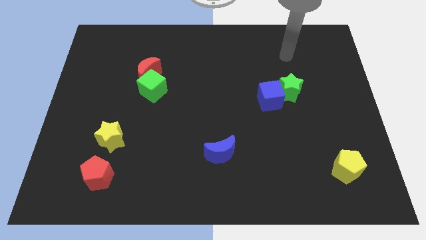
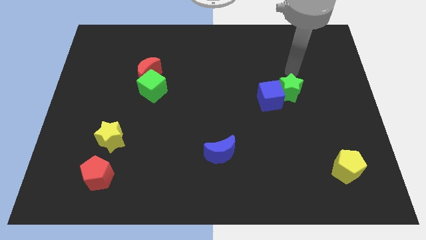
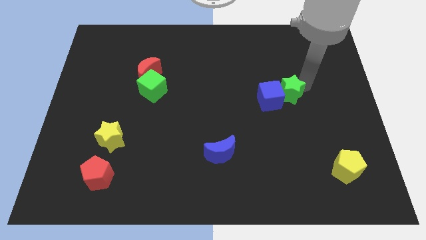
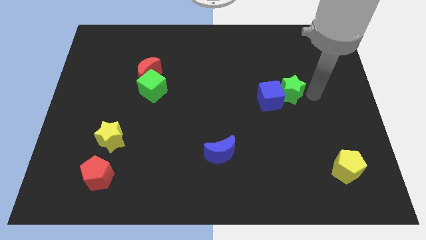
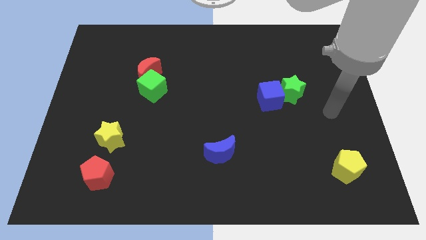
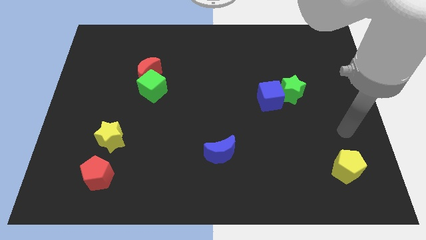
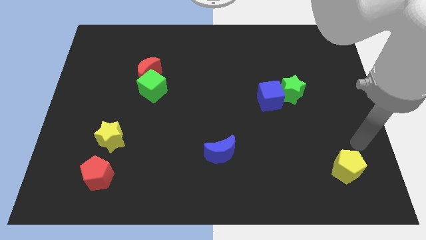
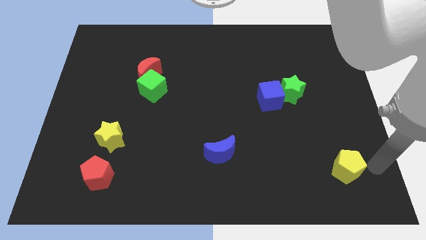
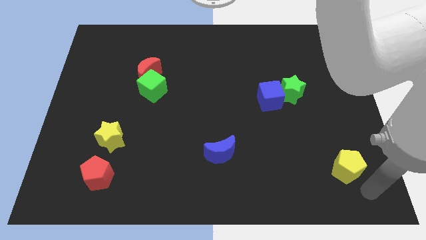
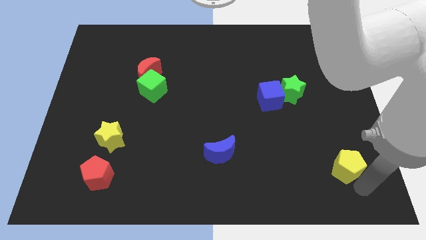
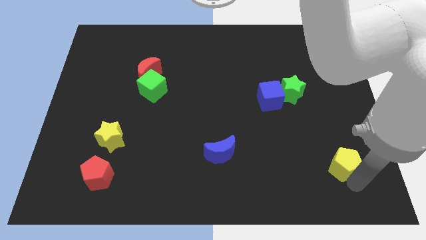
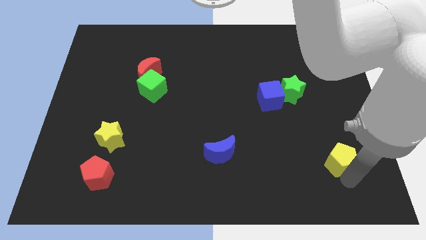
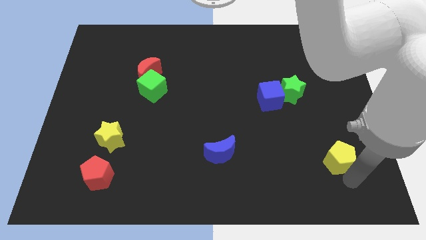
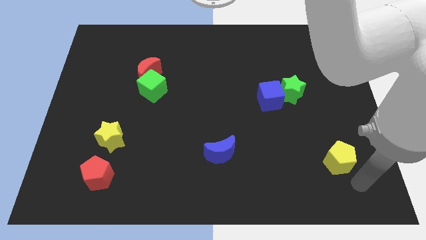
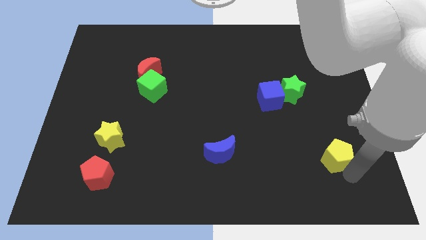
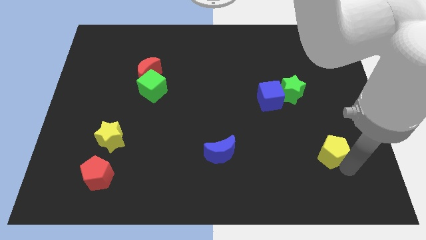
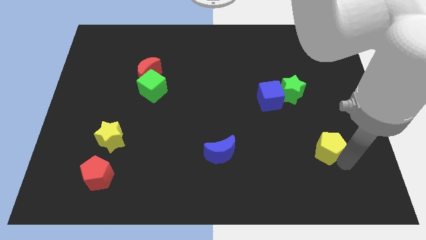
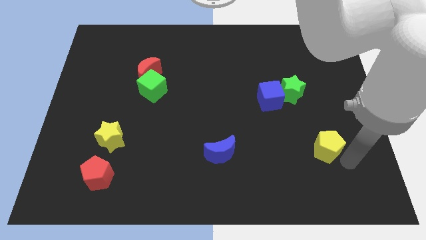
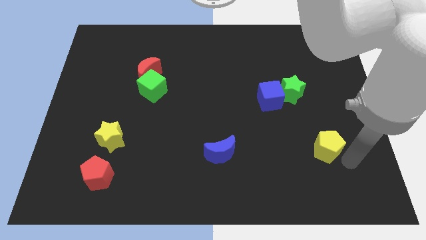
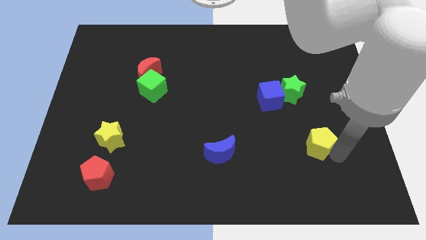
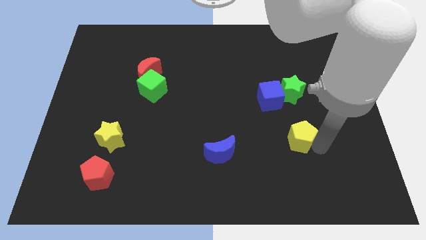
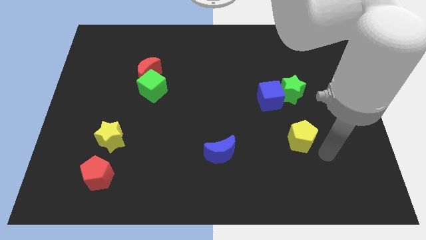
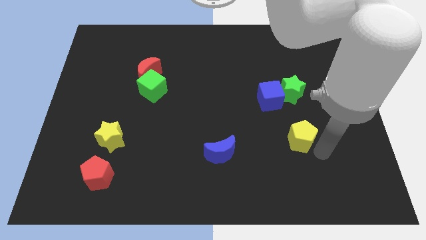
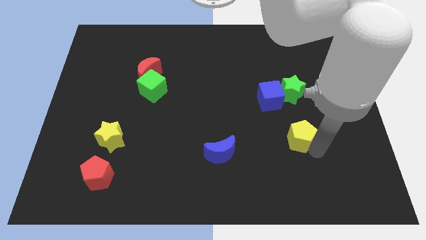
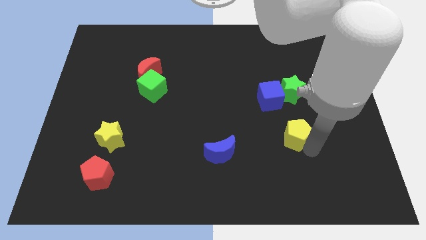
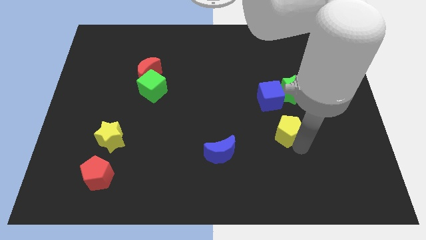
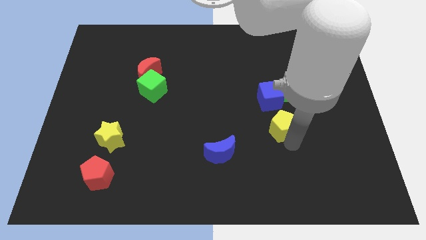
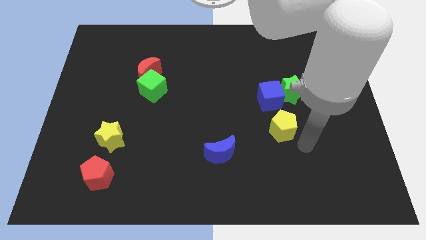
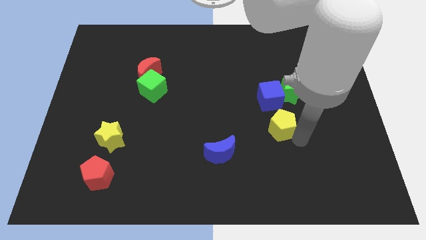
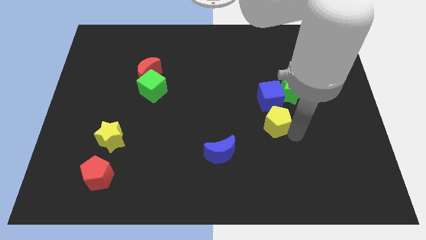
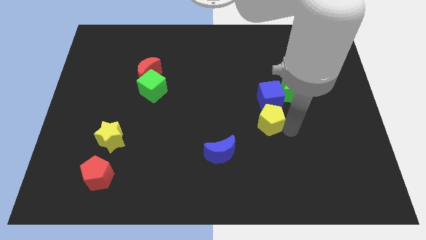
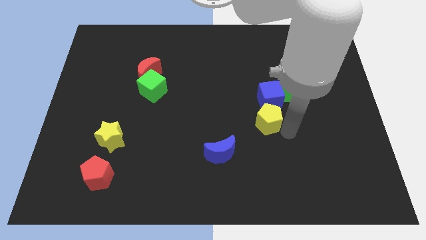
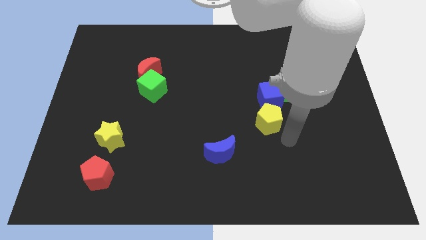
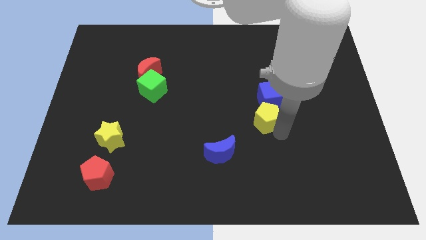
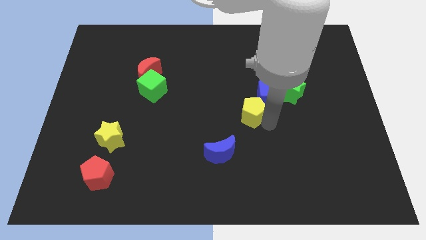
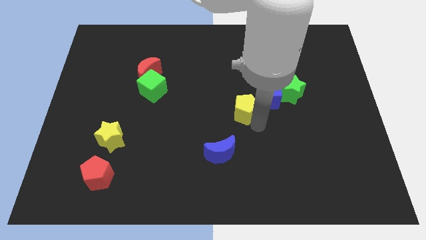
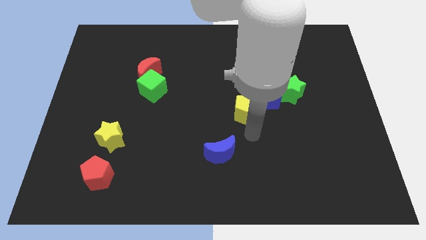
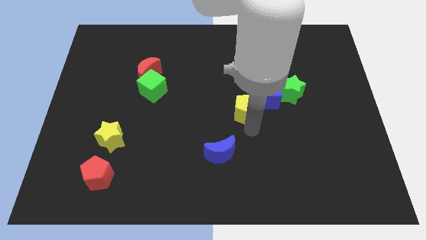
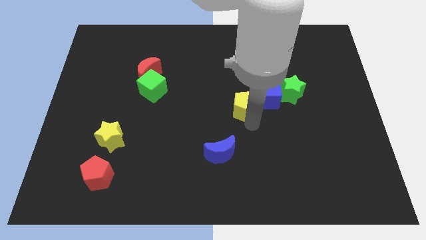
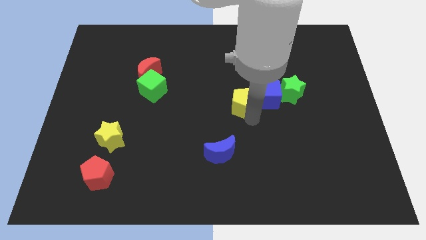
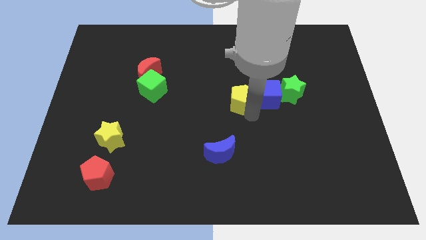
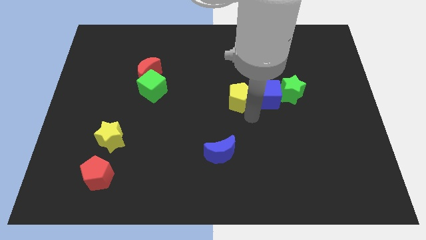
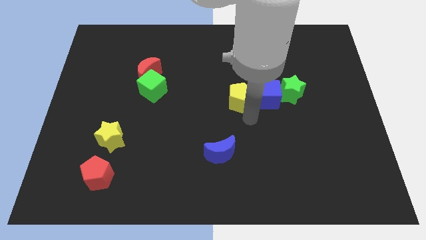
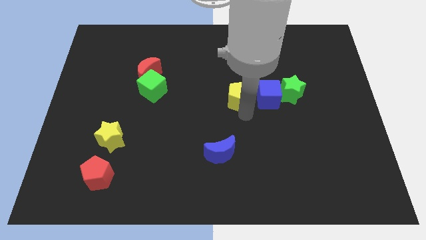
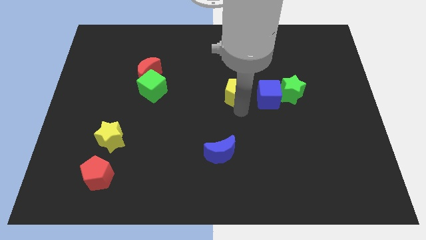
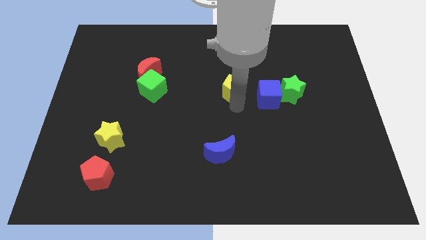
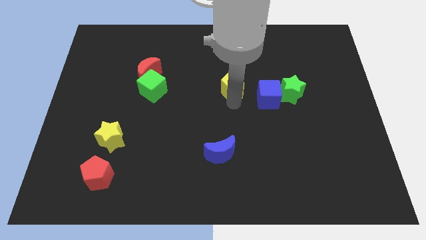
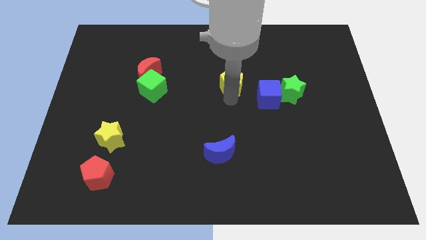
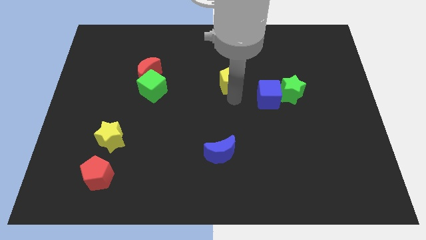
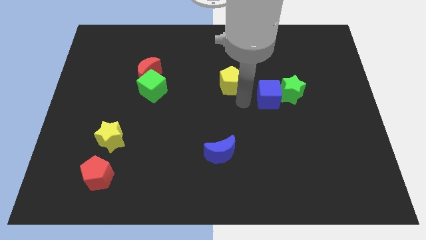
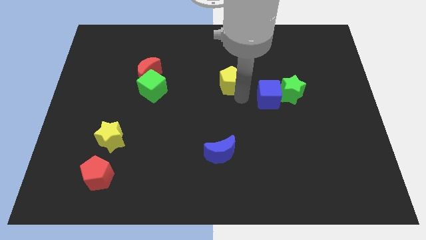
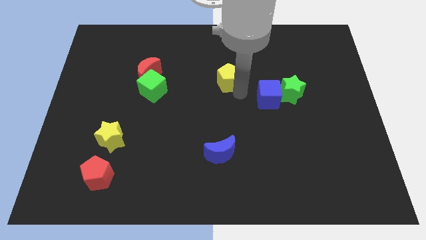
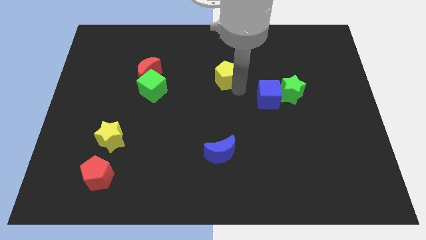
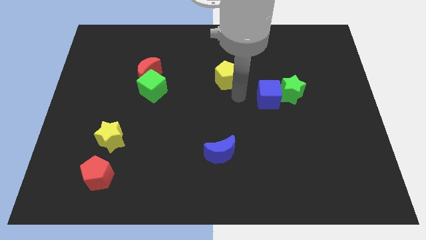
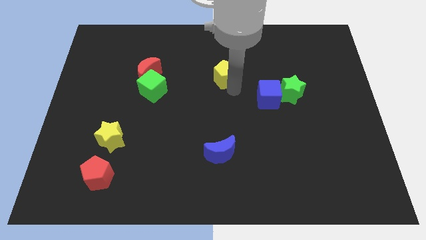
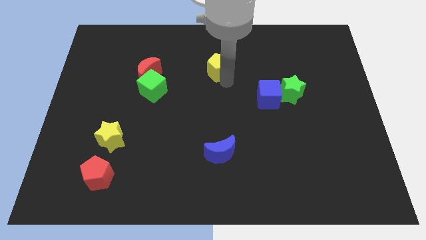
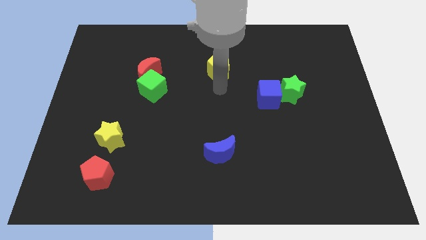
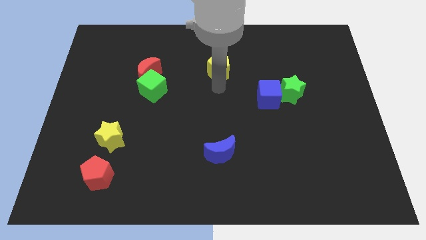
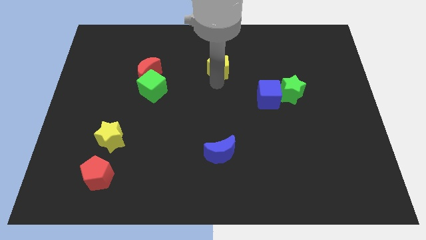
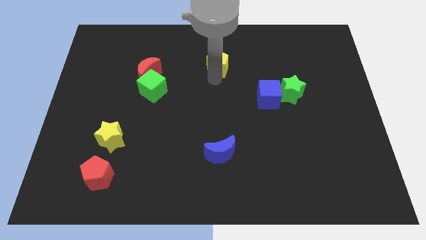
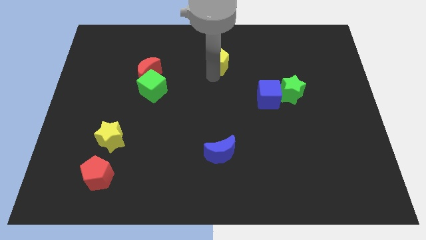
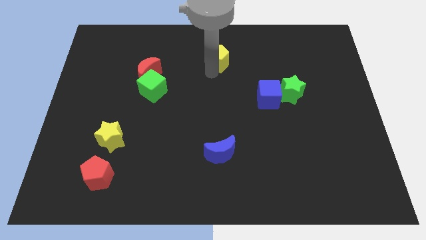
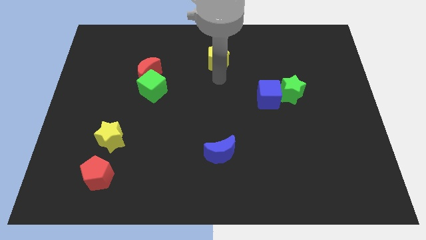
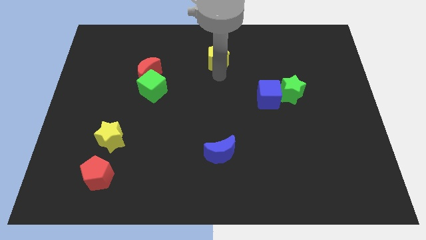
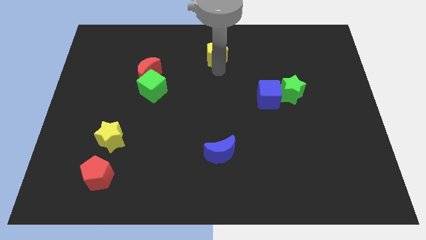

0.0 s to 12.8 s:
slide the yellow pentagon to the top
